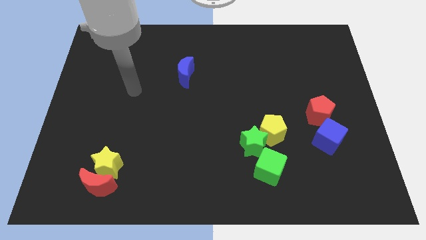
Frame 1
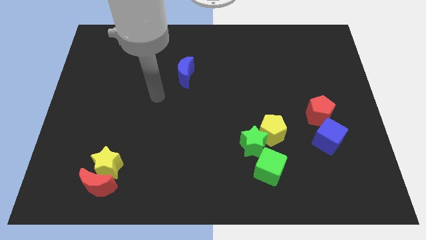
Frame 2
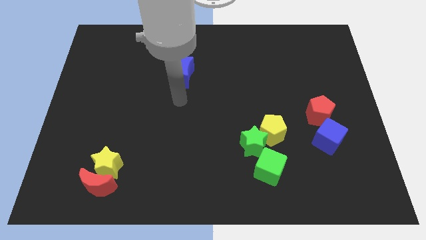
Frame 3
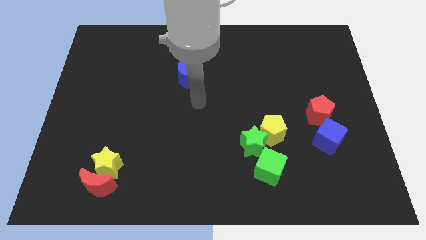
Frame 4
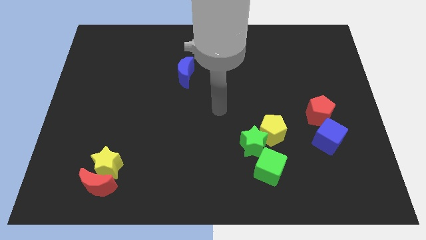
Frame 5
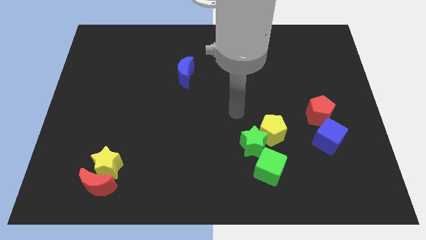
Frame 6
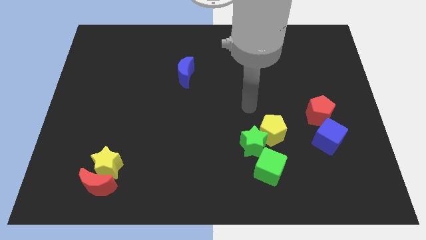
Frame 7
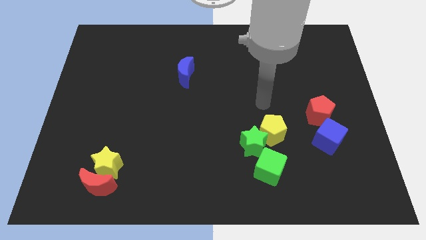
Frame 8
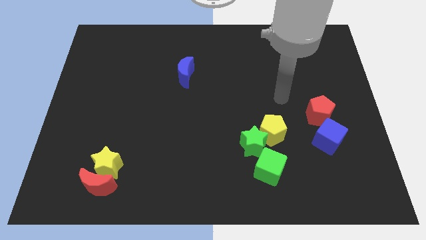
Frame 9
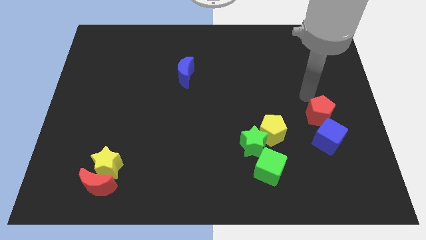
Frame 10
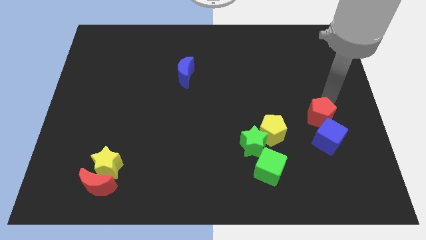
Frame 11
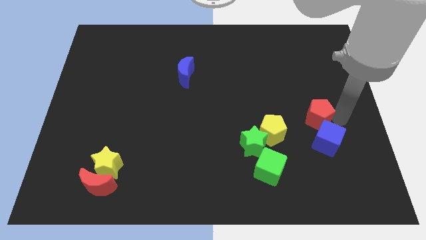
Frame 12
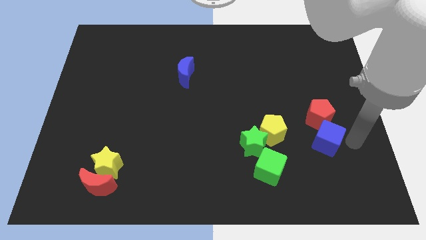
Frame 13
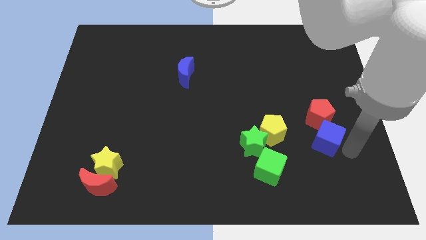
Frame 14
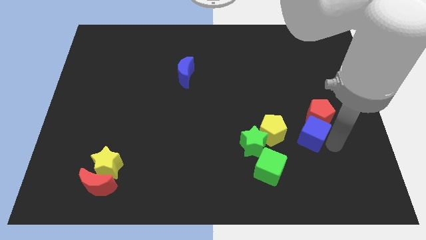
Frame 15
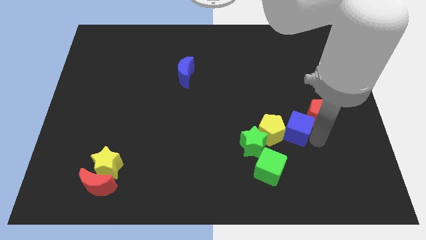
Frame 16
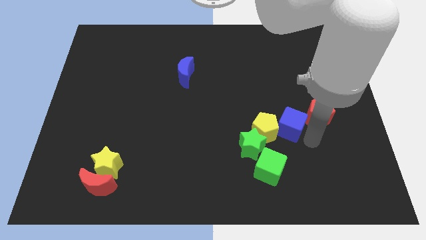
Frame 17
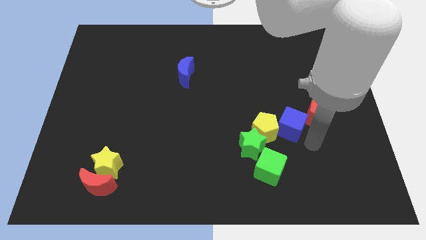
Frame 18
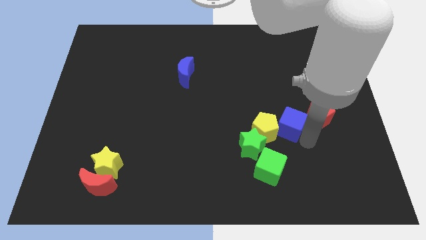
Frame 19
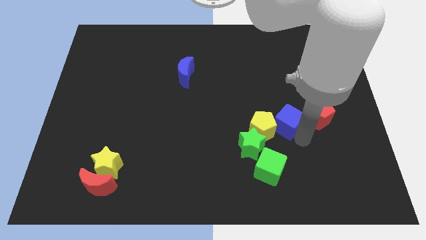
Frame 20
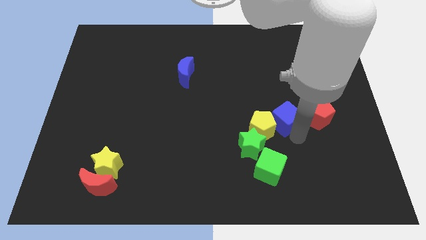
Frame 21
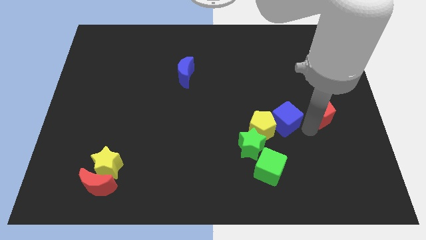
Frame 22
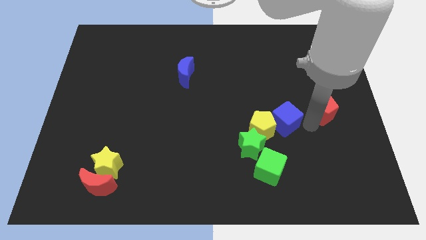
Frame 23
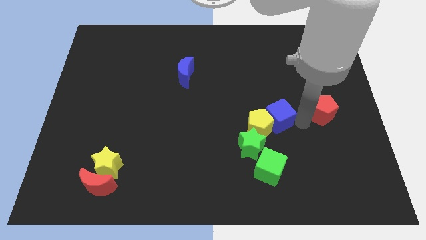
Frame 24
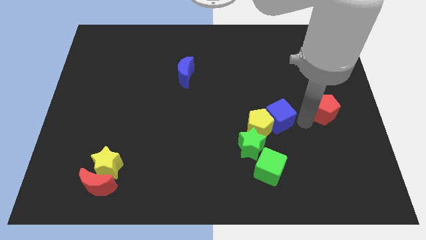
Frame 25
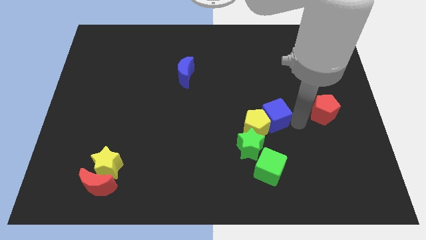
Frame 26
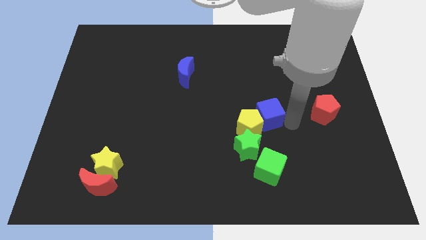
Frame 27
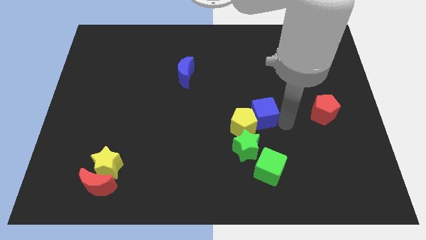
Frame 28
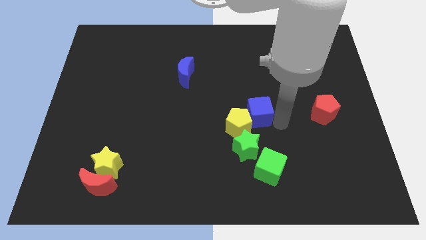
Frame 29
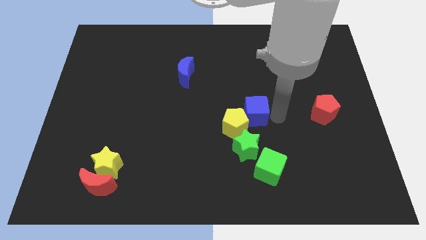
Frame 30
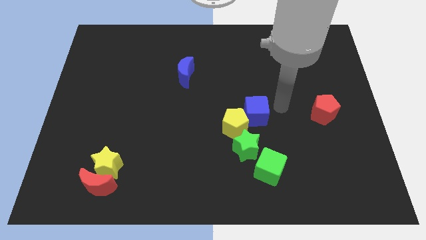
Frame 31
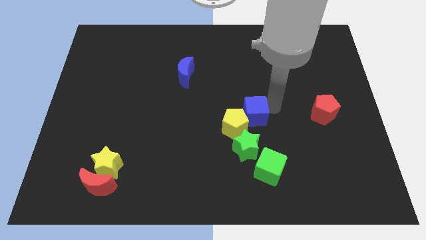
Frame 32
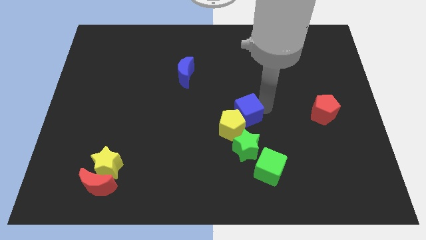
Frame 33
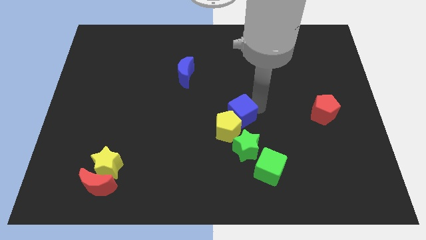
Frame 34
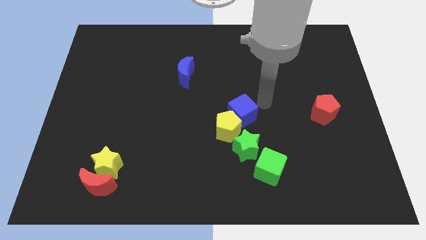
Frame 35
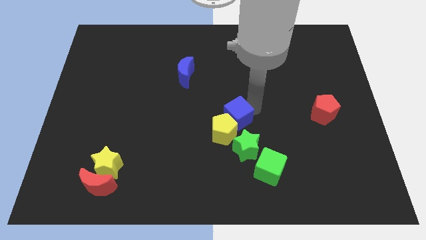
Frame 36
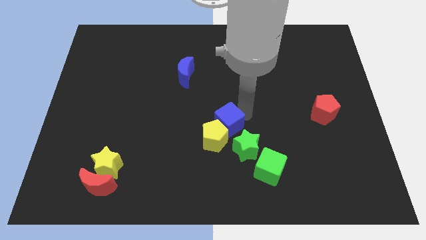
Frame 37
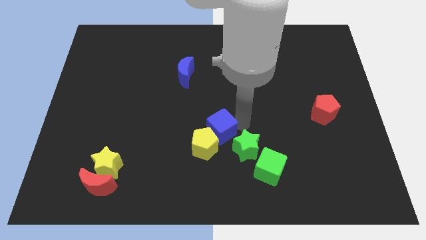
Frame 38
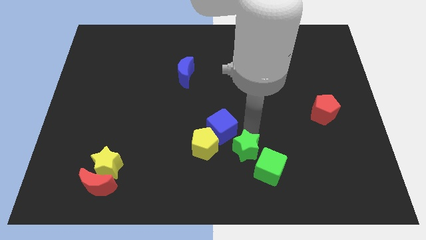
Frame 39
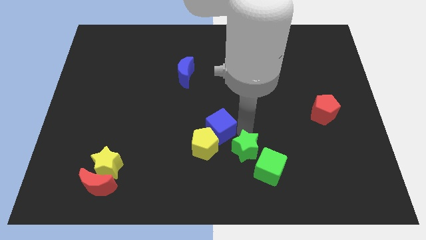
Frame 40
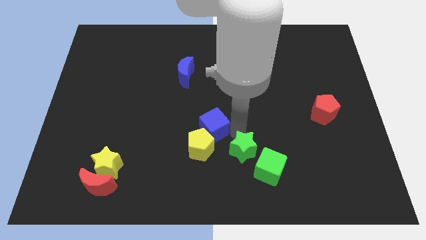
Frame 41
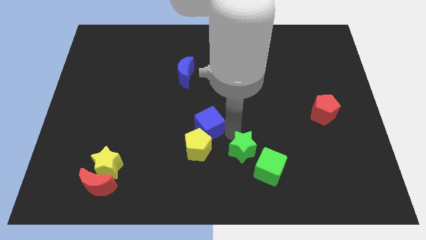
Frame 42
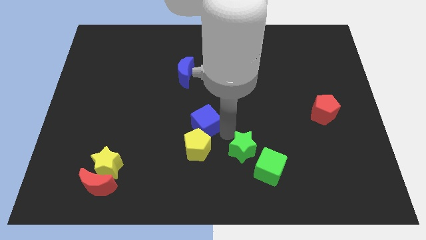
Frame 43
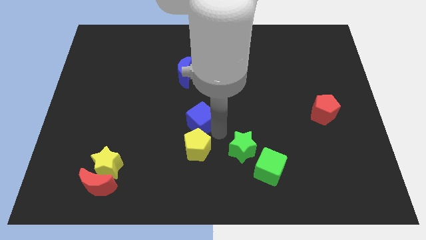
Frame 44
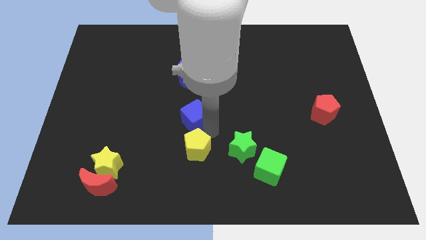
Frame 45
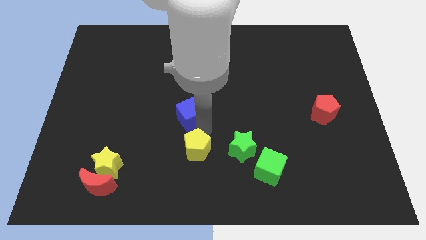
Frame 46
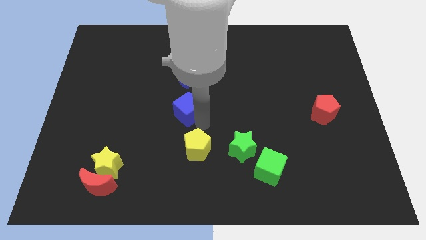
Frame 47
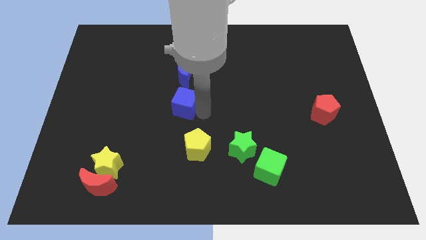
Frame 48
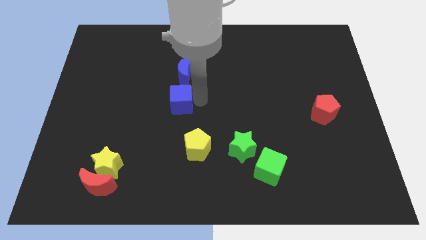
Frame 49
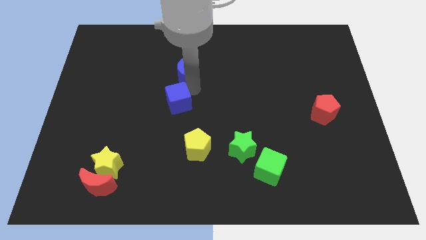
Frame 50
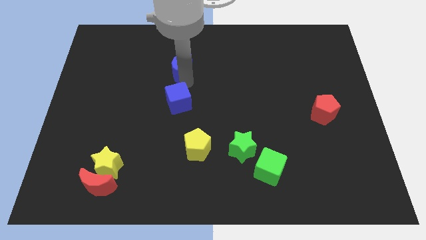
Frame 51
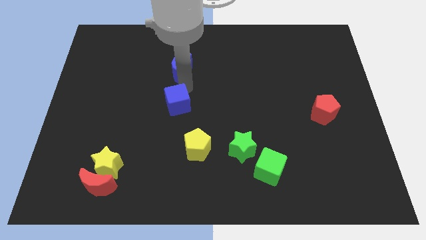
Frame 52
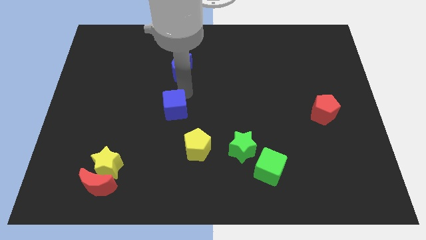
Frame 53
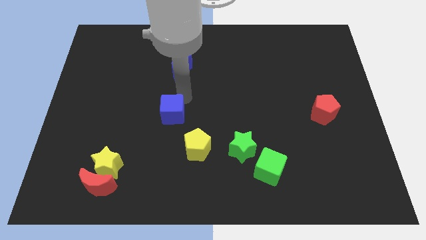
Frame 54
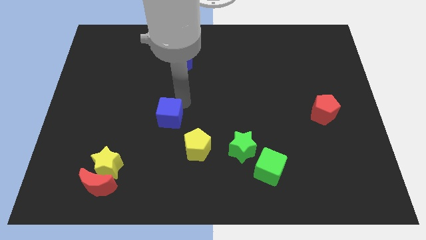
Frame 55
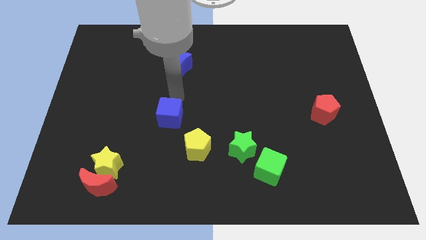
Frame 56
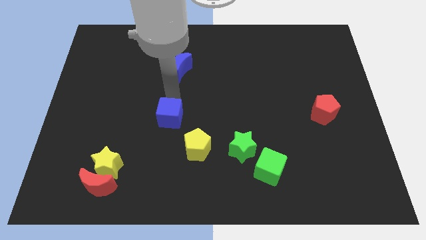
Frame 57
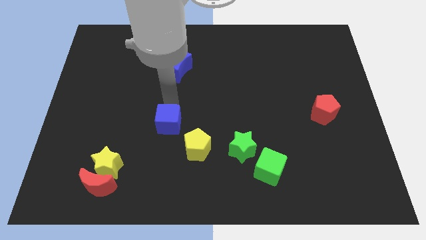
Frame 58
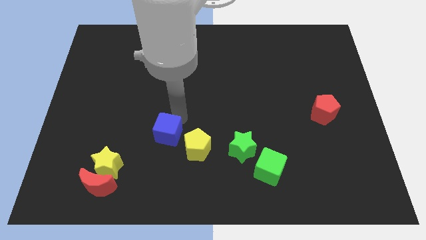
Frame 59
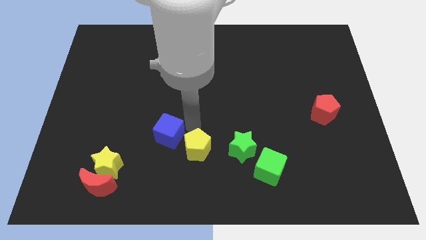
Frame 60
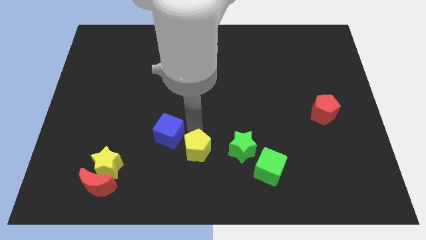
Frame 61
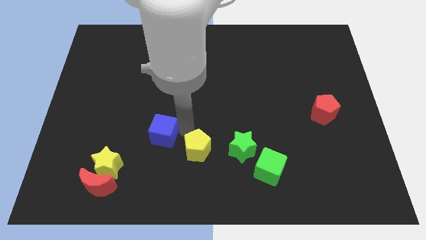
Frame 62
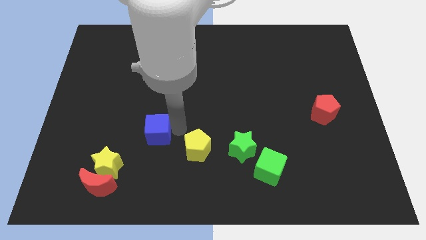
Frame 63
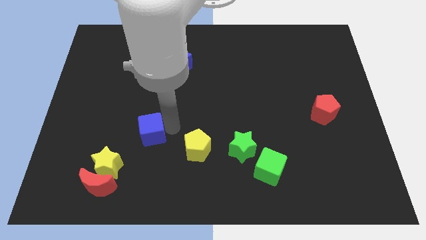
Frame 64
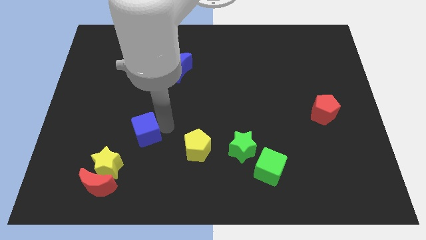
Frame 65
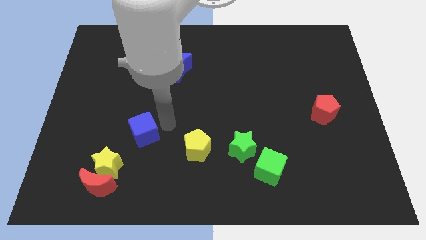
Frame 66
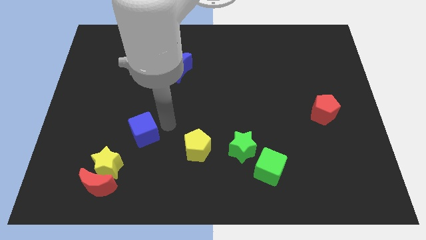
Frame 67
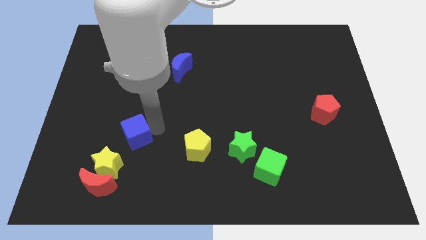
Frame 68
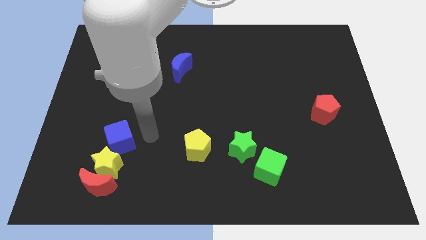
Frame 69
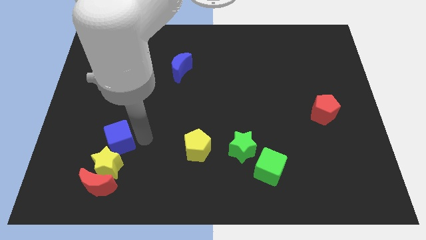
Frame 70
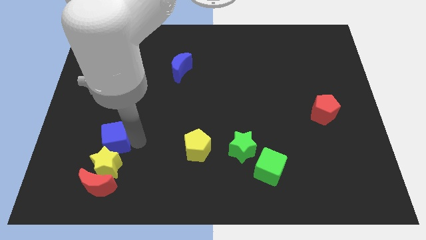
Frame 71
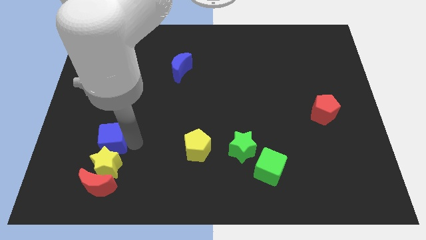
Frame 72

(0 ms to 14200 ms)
slide the blue cube to the top left side of the yellow star

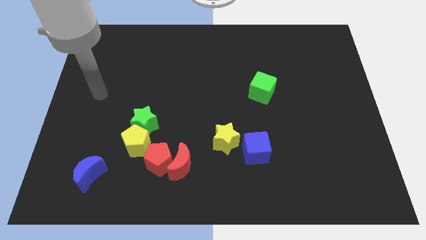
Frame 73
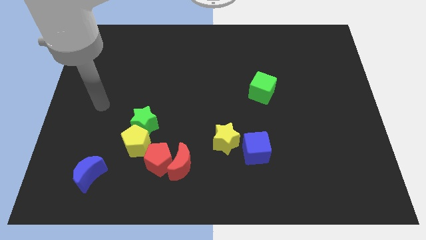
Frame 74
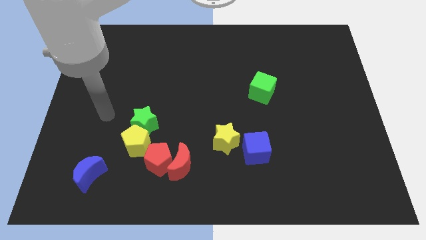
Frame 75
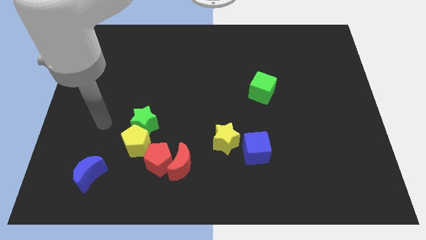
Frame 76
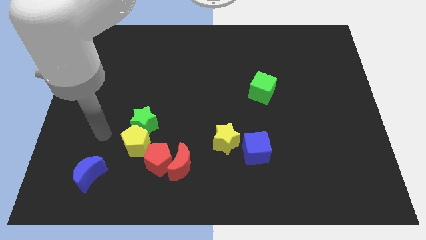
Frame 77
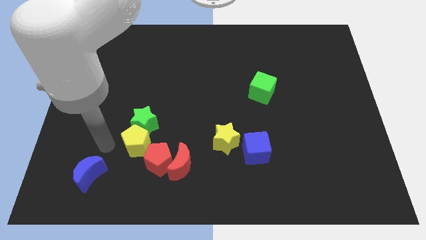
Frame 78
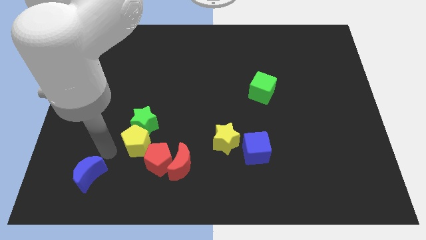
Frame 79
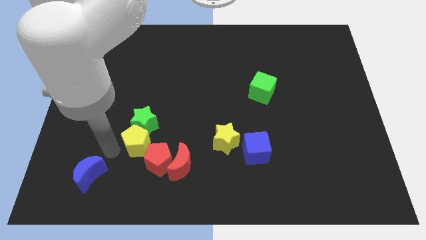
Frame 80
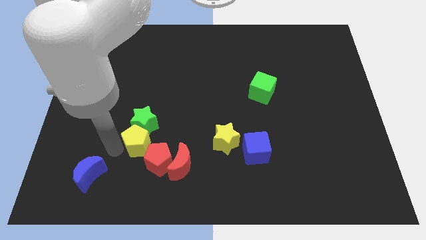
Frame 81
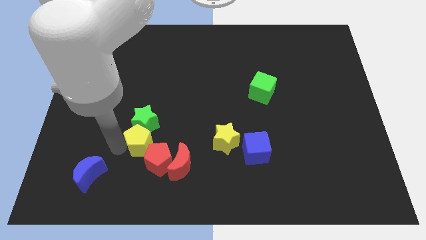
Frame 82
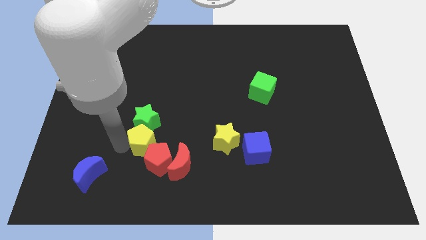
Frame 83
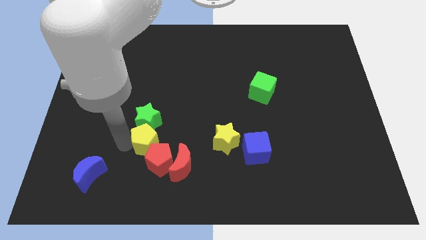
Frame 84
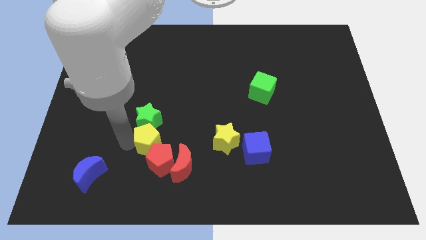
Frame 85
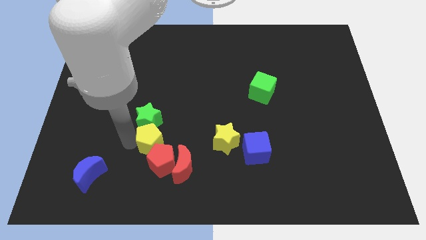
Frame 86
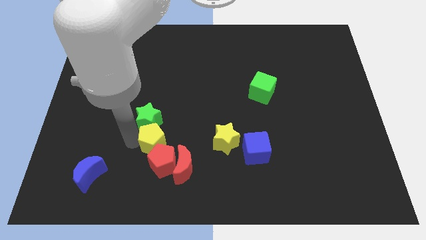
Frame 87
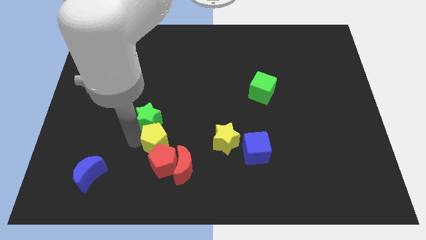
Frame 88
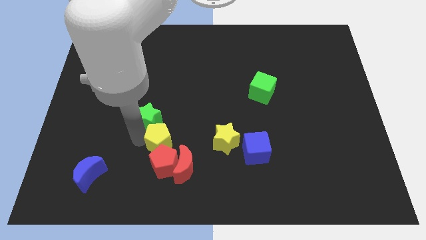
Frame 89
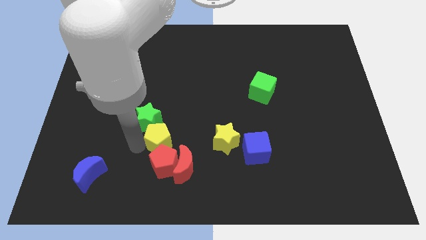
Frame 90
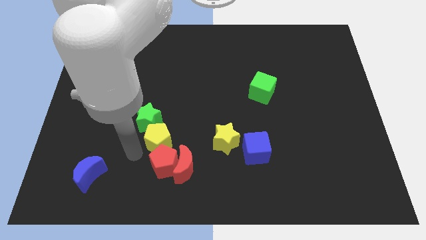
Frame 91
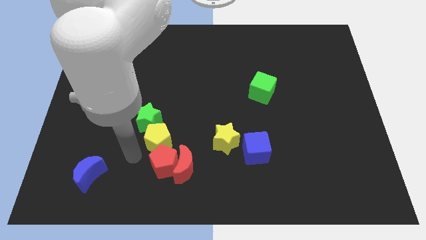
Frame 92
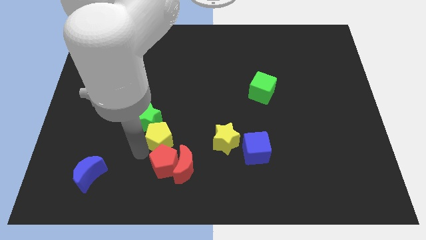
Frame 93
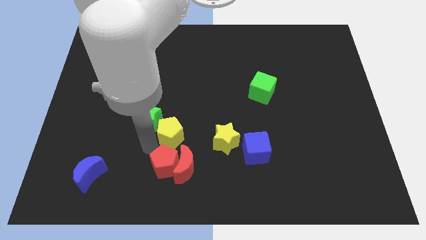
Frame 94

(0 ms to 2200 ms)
push the yellow pentagon to the right side of the green star
